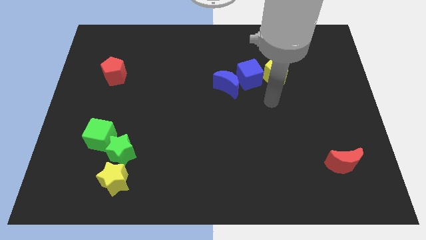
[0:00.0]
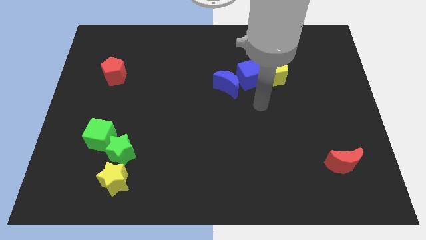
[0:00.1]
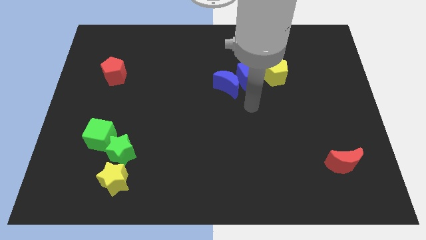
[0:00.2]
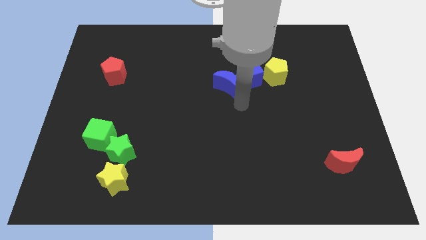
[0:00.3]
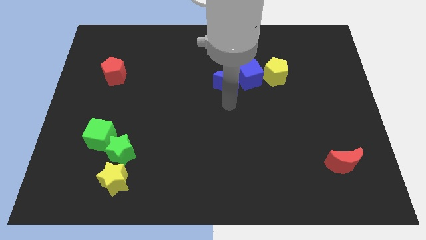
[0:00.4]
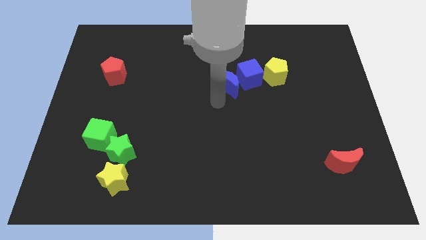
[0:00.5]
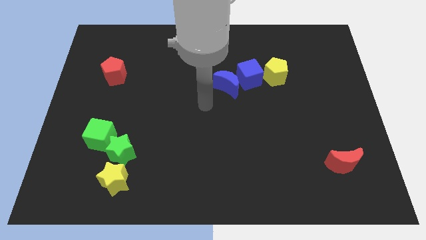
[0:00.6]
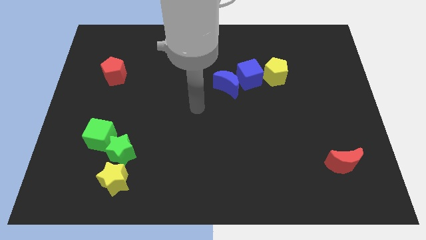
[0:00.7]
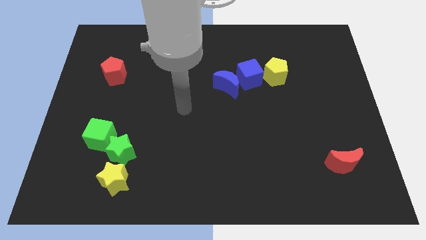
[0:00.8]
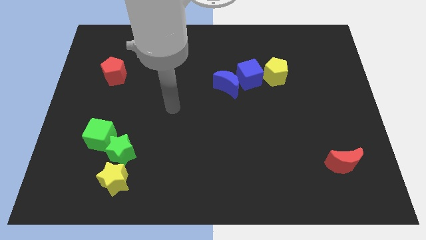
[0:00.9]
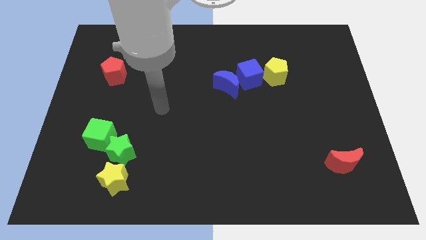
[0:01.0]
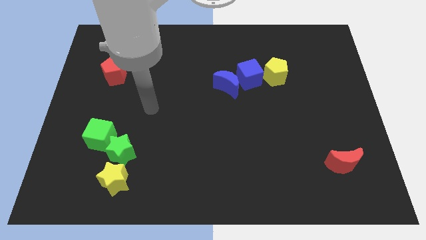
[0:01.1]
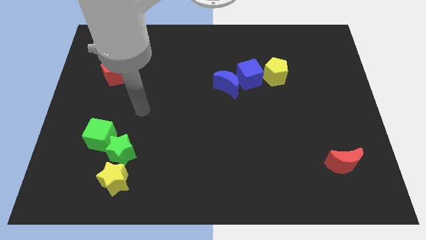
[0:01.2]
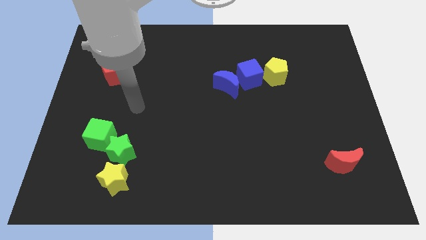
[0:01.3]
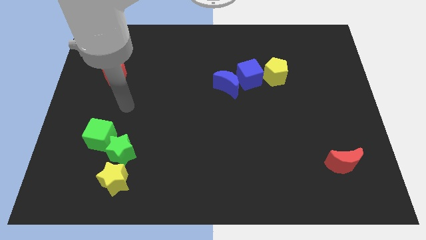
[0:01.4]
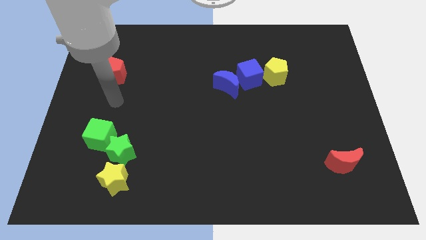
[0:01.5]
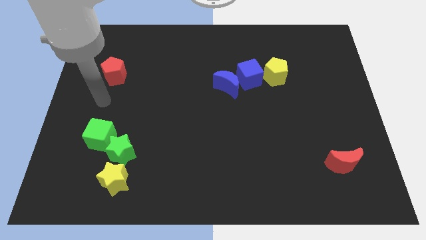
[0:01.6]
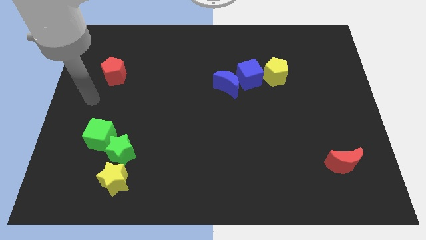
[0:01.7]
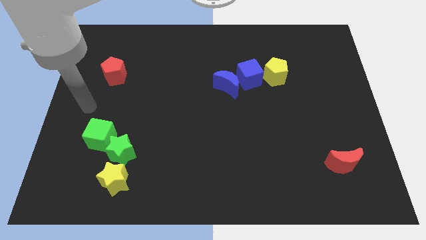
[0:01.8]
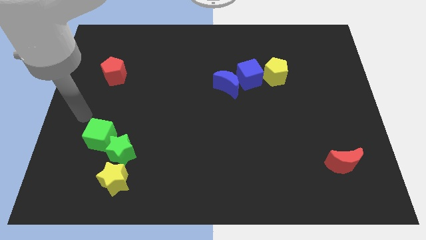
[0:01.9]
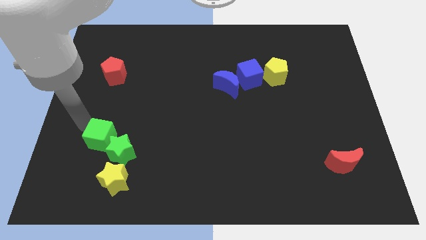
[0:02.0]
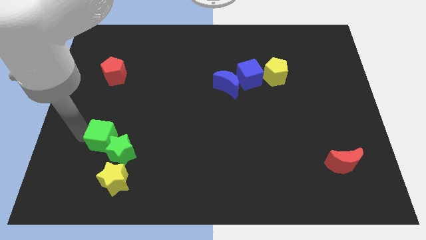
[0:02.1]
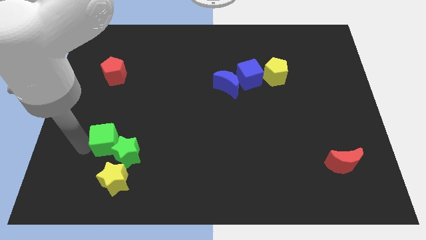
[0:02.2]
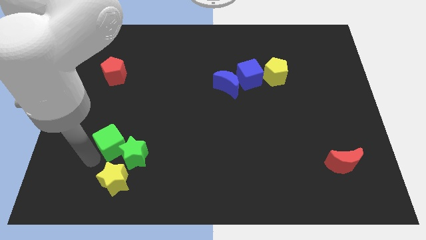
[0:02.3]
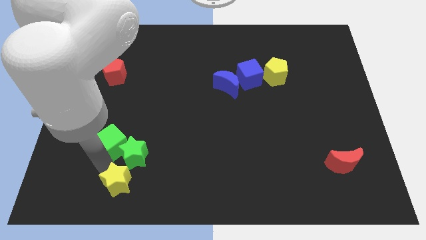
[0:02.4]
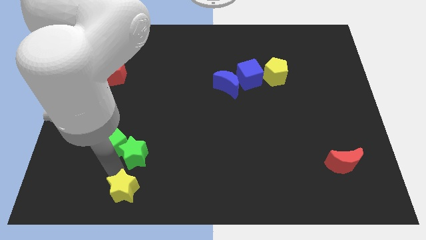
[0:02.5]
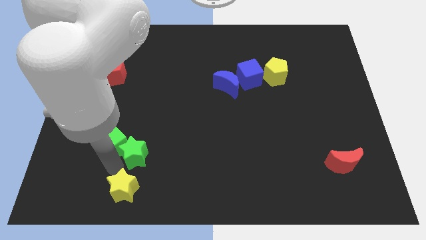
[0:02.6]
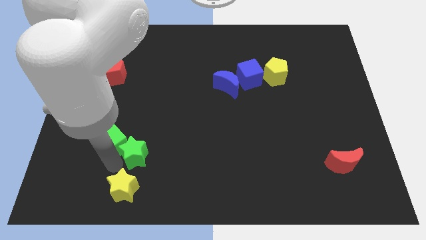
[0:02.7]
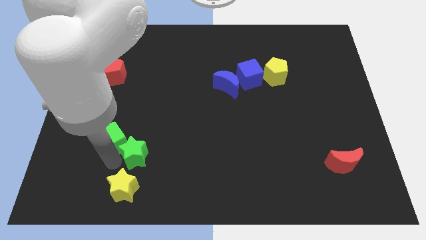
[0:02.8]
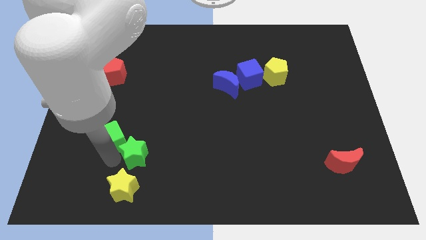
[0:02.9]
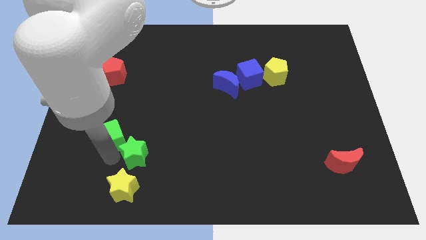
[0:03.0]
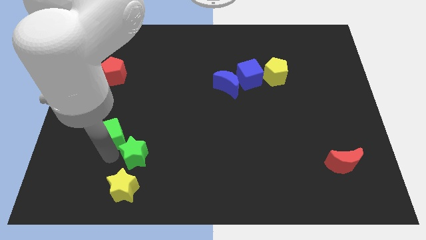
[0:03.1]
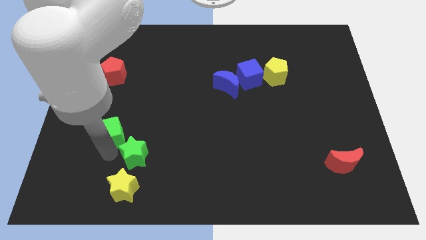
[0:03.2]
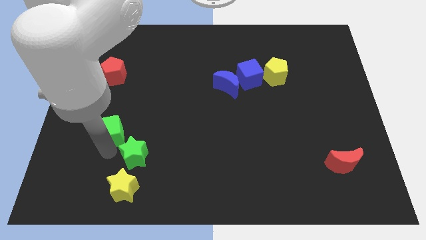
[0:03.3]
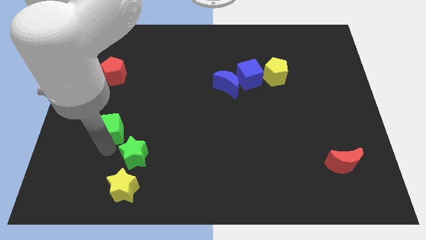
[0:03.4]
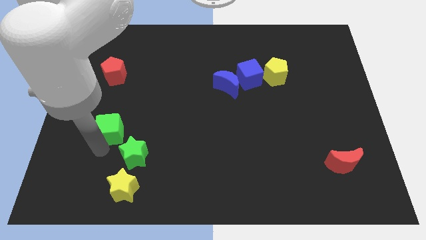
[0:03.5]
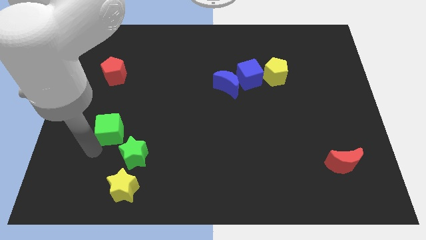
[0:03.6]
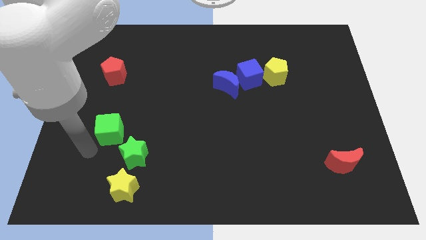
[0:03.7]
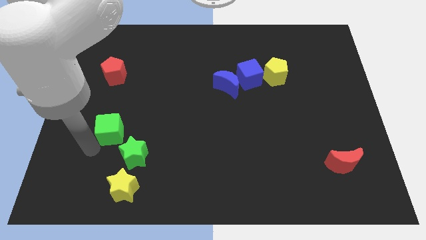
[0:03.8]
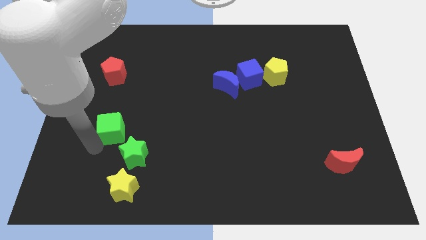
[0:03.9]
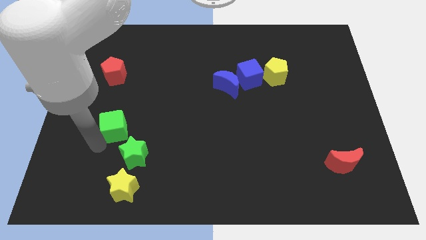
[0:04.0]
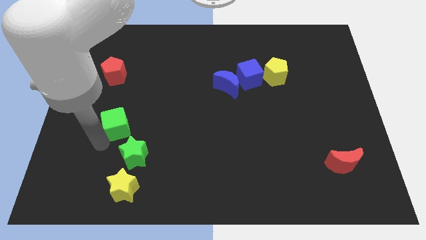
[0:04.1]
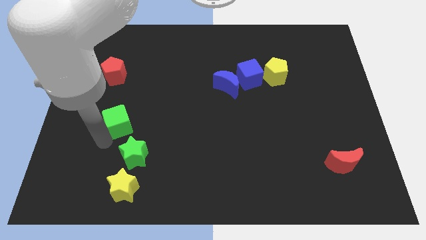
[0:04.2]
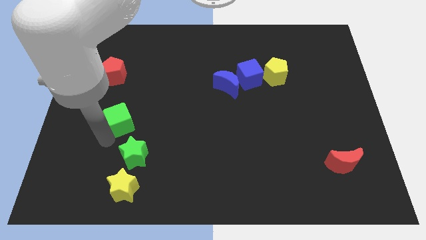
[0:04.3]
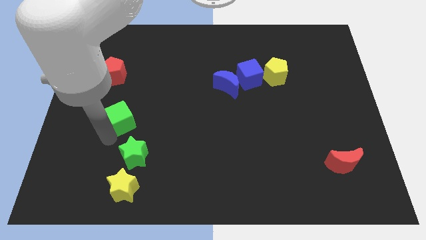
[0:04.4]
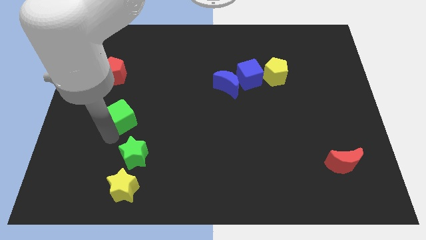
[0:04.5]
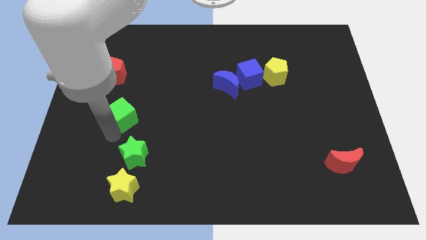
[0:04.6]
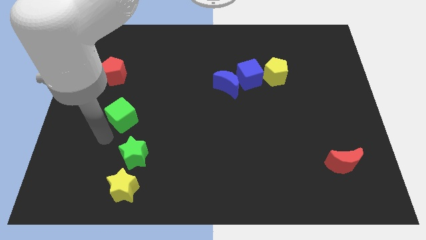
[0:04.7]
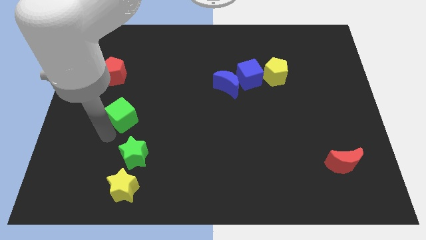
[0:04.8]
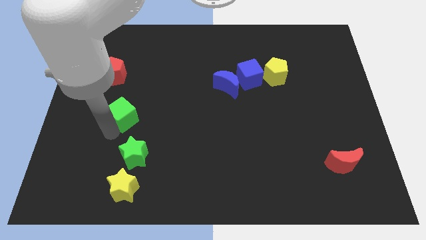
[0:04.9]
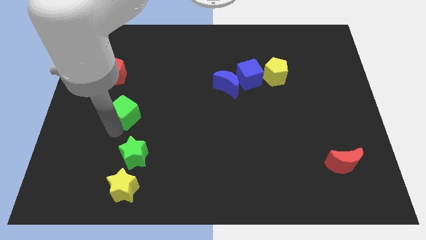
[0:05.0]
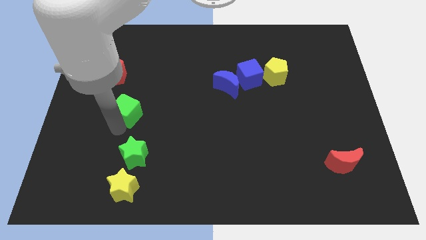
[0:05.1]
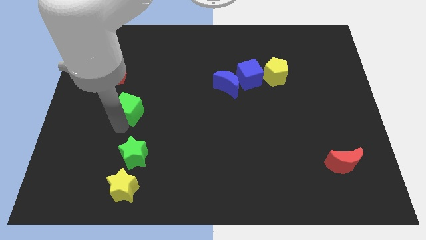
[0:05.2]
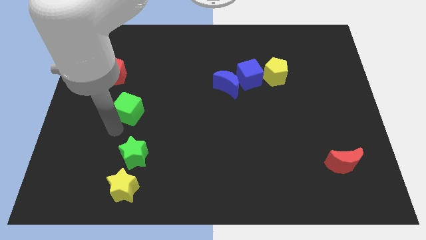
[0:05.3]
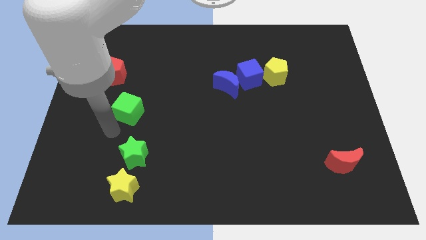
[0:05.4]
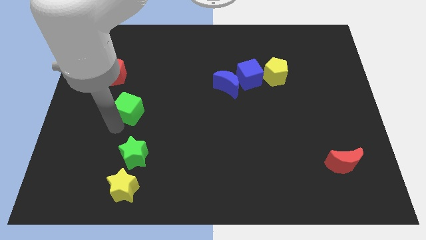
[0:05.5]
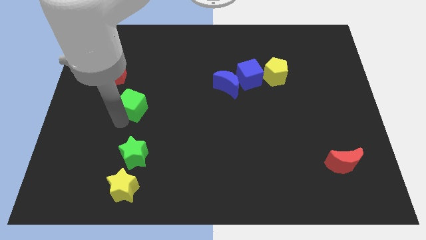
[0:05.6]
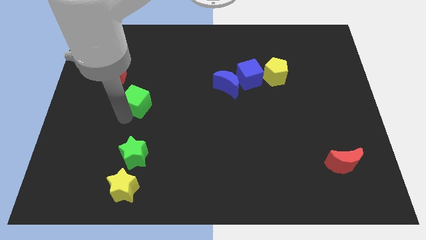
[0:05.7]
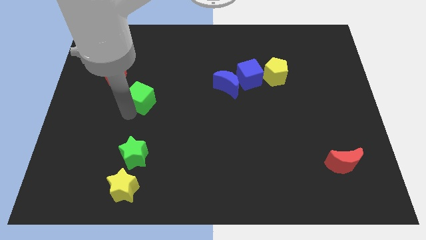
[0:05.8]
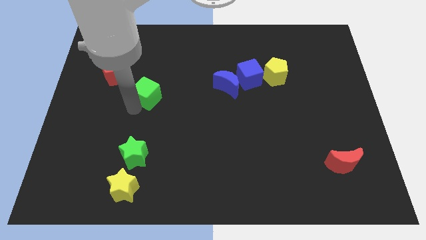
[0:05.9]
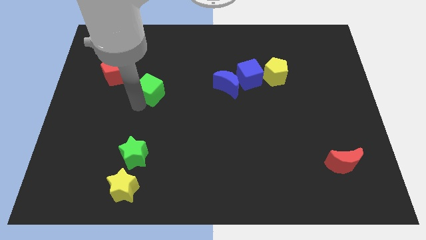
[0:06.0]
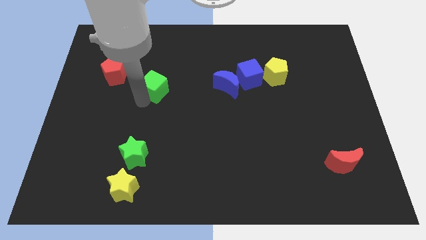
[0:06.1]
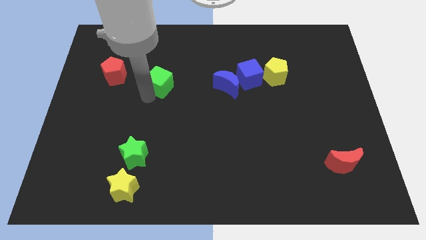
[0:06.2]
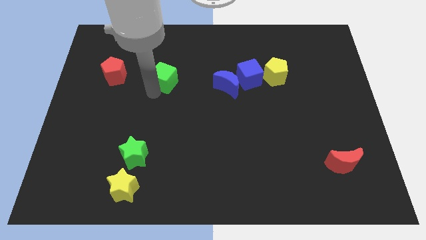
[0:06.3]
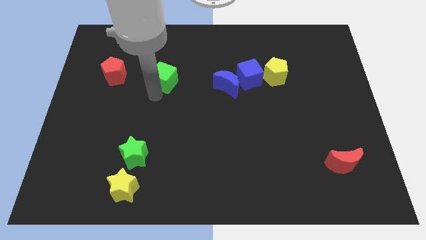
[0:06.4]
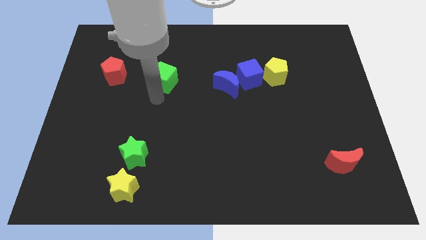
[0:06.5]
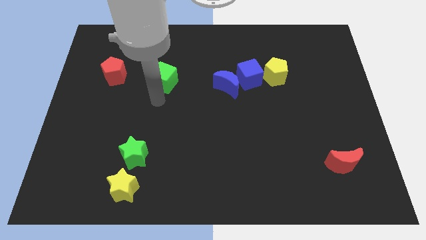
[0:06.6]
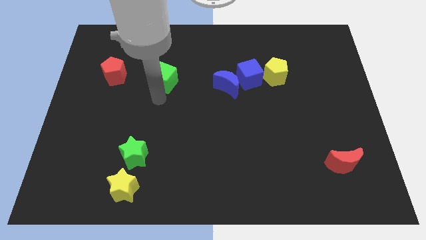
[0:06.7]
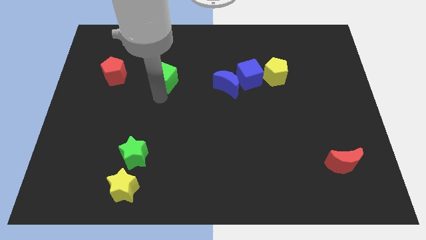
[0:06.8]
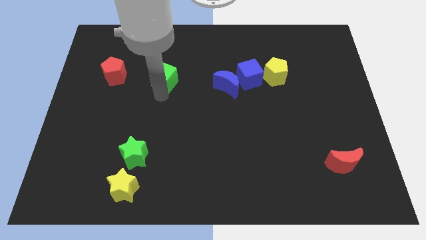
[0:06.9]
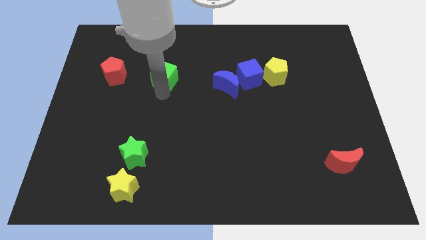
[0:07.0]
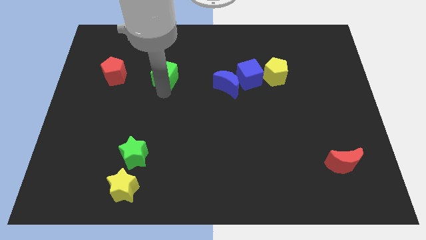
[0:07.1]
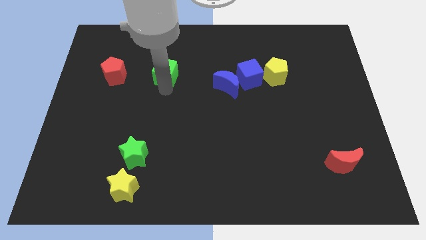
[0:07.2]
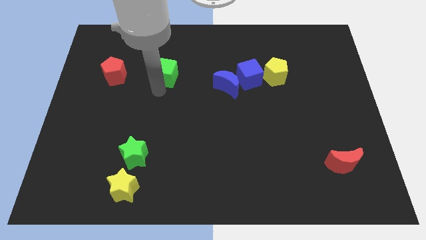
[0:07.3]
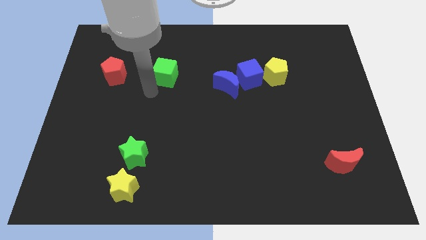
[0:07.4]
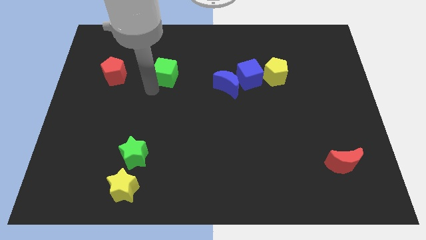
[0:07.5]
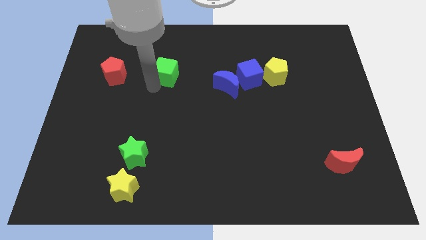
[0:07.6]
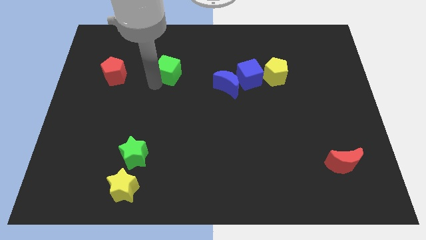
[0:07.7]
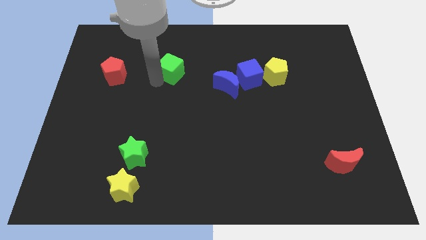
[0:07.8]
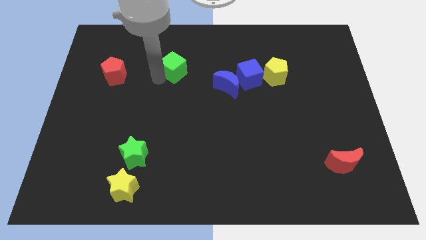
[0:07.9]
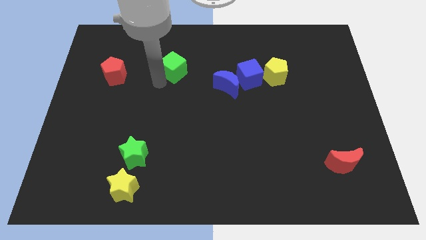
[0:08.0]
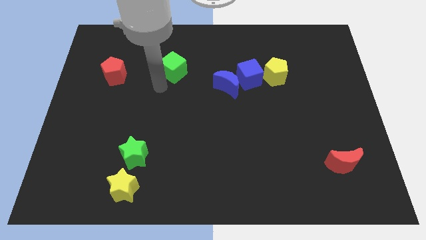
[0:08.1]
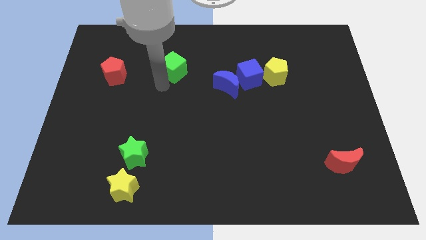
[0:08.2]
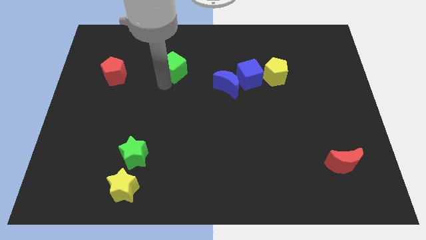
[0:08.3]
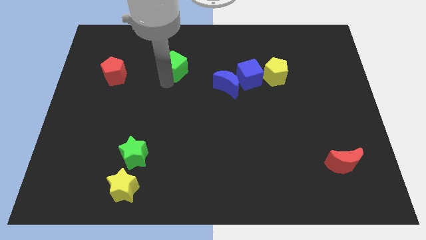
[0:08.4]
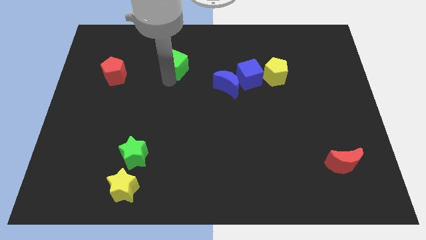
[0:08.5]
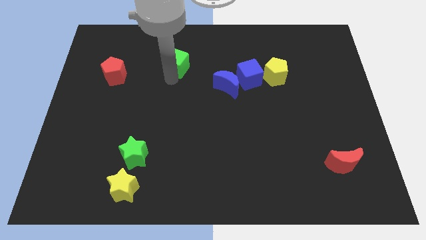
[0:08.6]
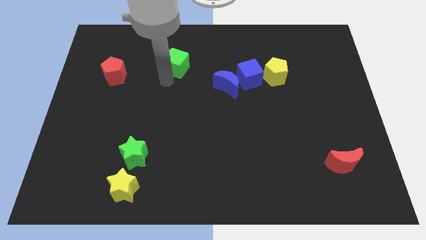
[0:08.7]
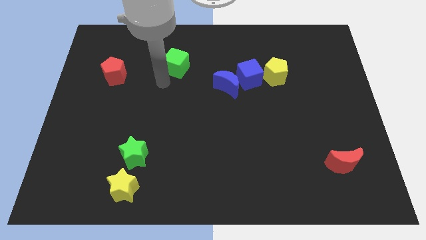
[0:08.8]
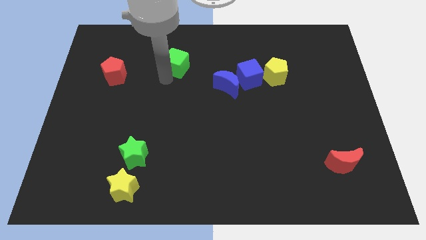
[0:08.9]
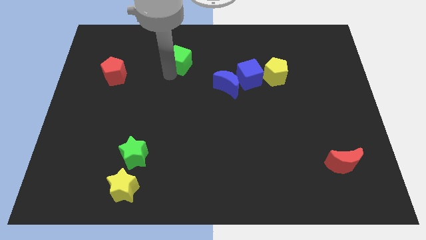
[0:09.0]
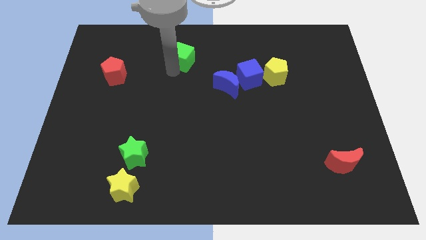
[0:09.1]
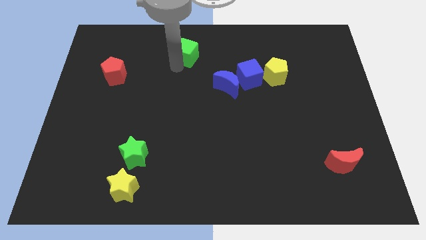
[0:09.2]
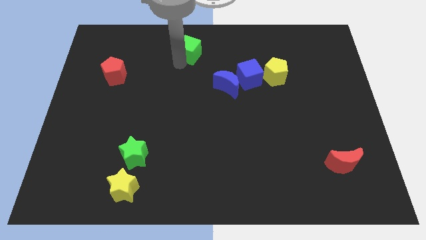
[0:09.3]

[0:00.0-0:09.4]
push the green cube to the towards your base
